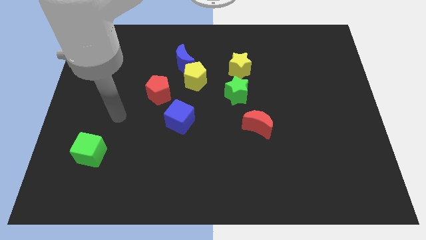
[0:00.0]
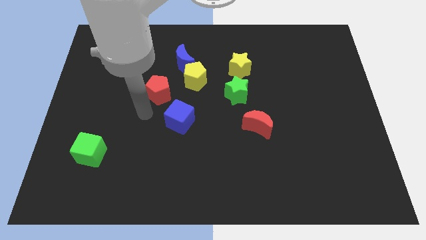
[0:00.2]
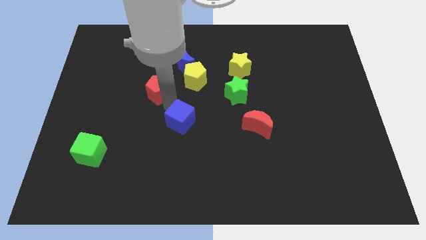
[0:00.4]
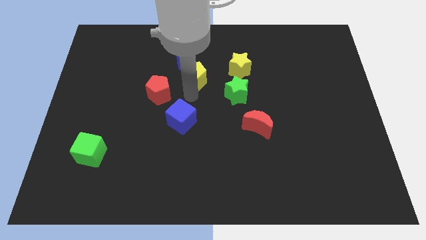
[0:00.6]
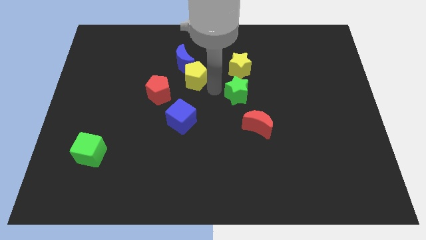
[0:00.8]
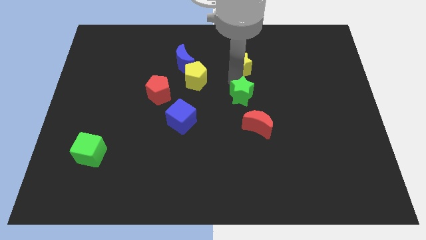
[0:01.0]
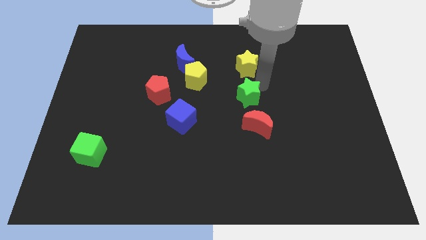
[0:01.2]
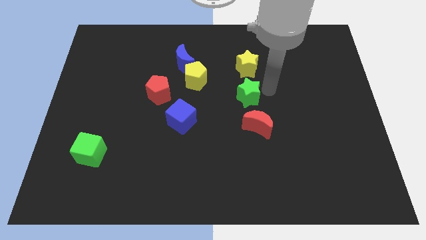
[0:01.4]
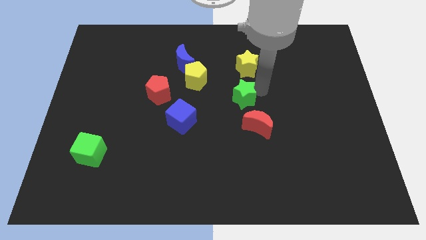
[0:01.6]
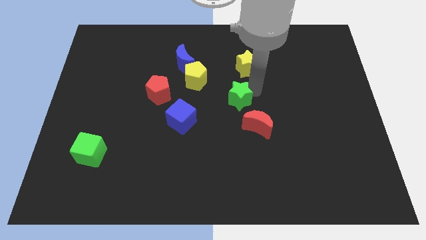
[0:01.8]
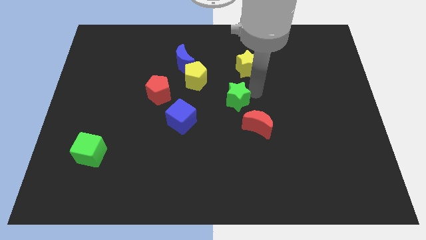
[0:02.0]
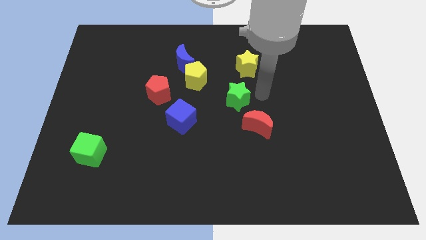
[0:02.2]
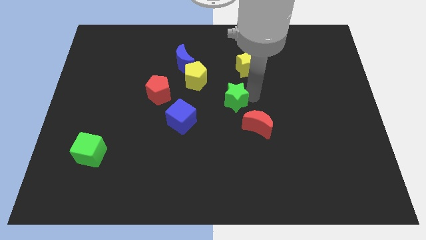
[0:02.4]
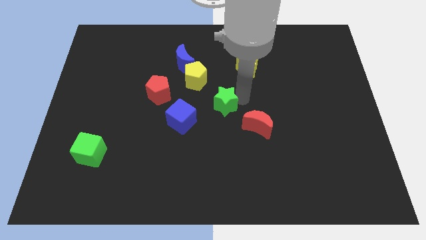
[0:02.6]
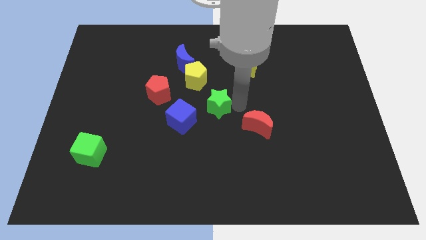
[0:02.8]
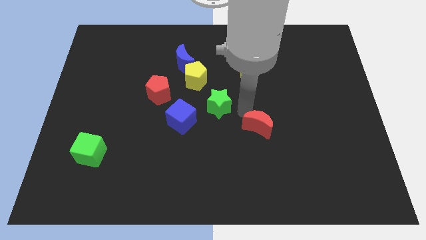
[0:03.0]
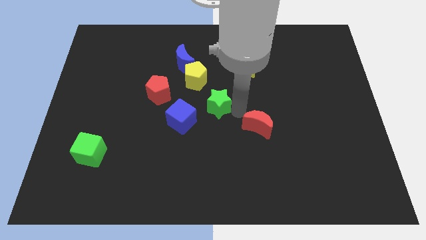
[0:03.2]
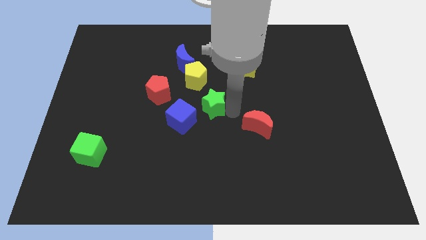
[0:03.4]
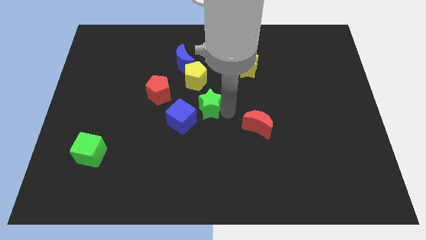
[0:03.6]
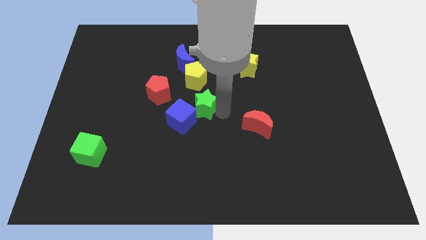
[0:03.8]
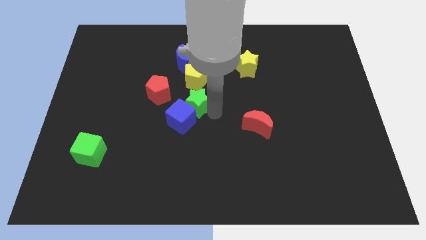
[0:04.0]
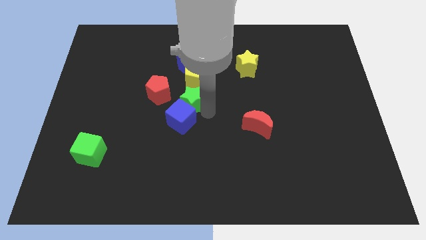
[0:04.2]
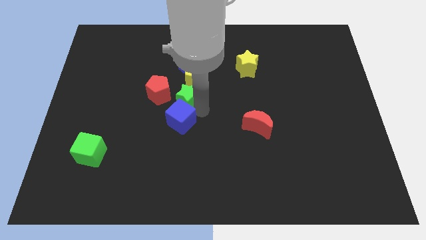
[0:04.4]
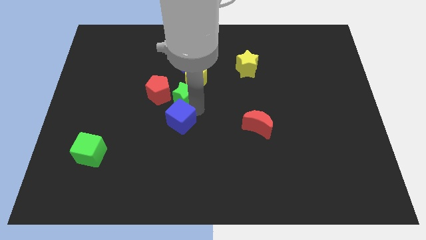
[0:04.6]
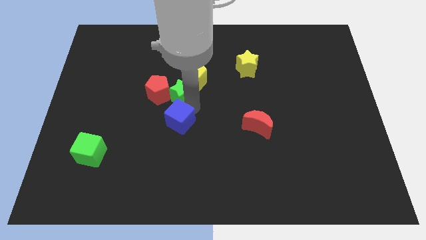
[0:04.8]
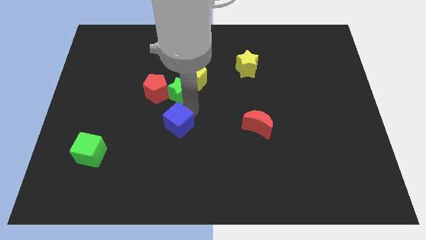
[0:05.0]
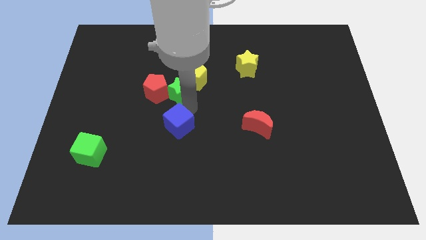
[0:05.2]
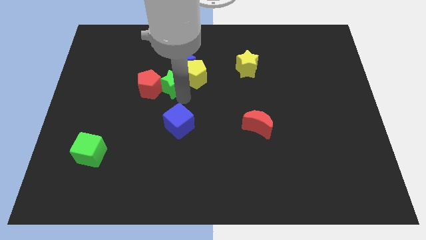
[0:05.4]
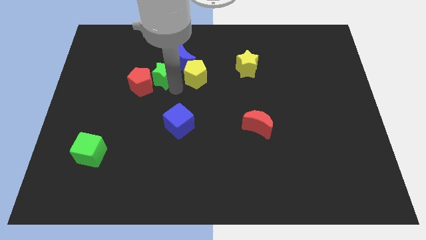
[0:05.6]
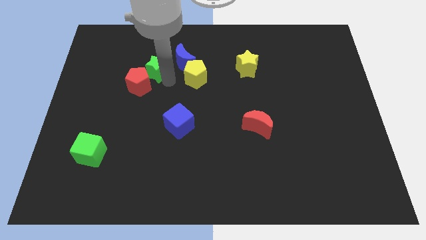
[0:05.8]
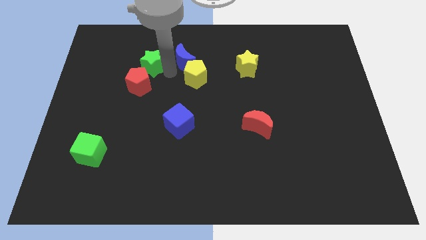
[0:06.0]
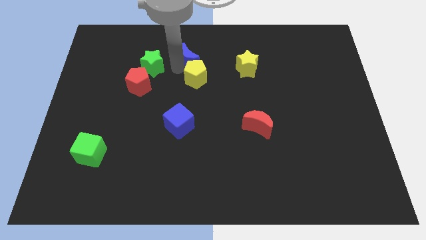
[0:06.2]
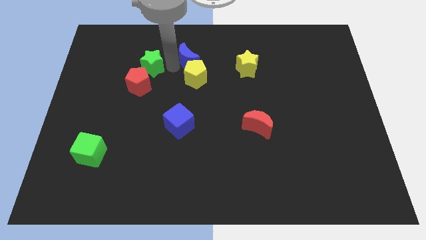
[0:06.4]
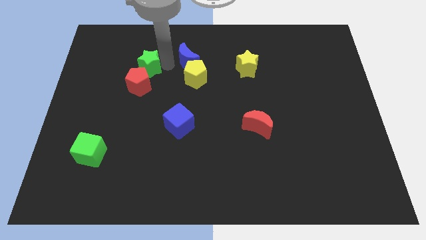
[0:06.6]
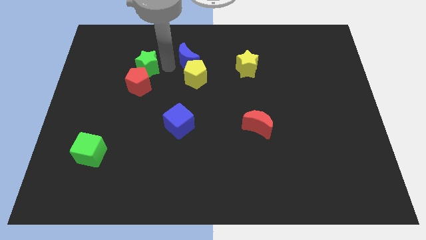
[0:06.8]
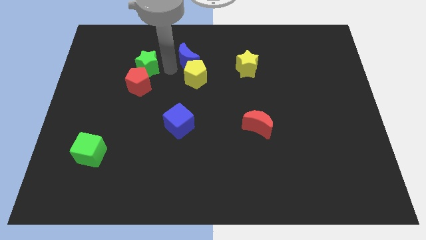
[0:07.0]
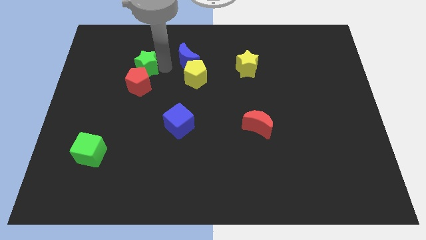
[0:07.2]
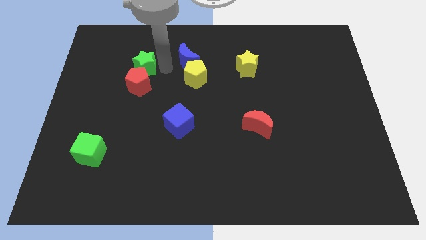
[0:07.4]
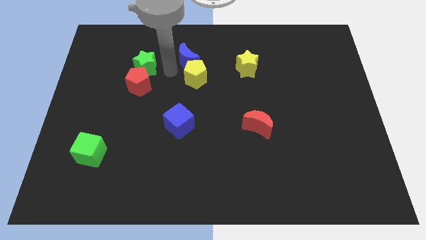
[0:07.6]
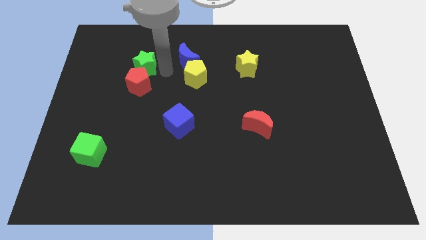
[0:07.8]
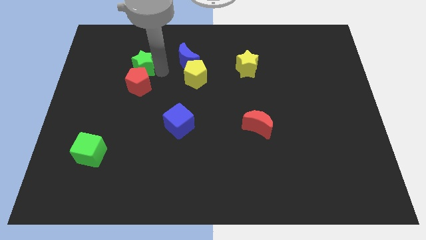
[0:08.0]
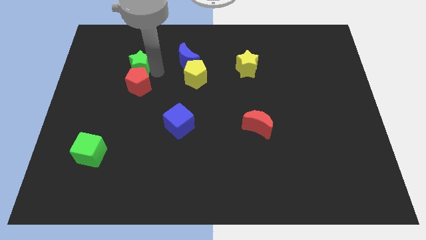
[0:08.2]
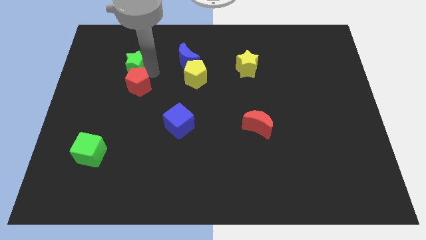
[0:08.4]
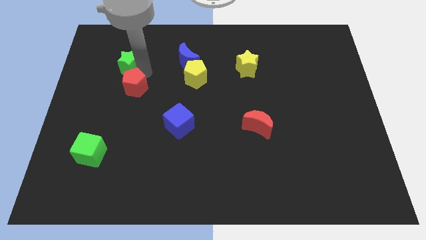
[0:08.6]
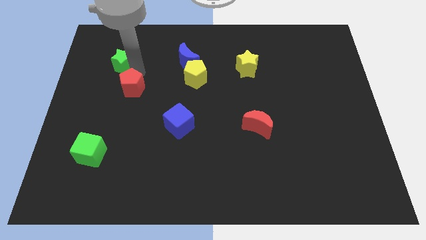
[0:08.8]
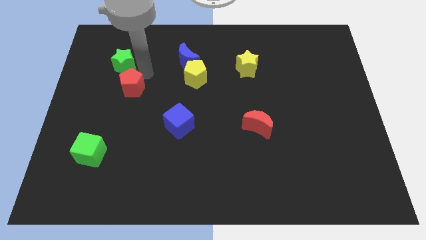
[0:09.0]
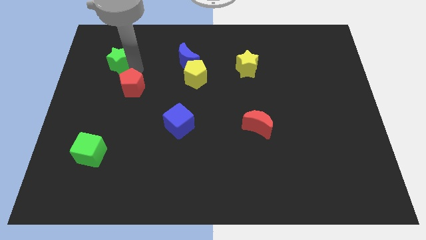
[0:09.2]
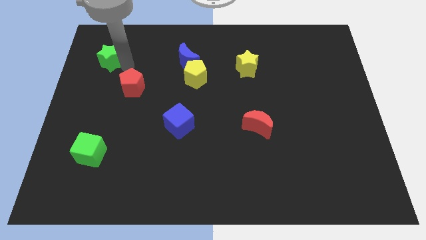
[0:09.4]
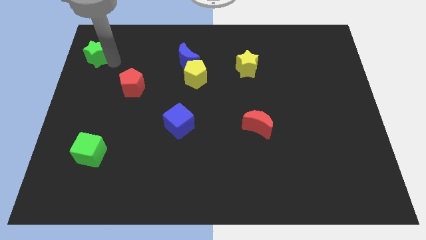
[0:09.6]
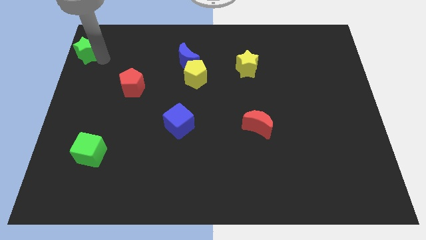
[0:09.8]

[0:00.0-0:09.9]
slide the green star to the top left corner

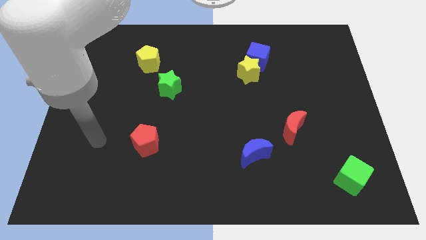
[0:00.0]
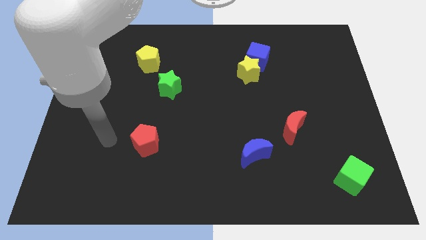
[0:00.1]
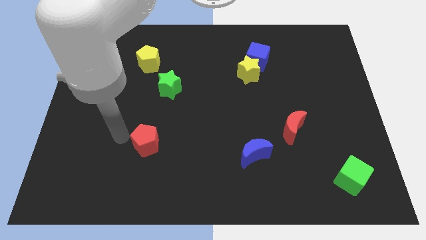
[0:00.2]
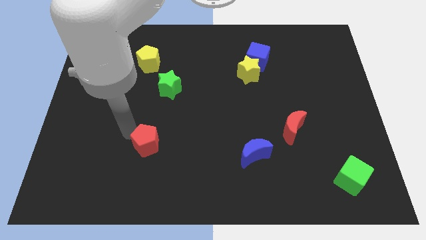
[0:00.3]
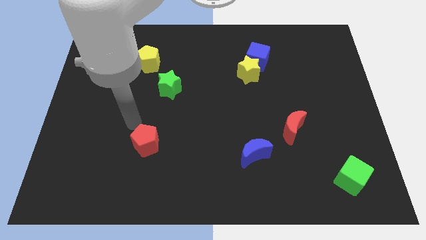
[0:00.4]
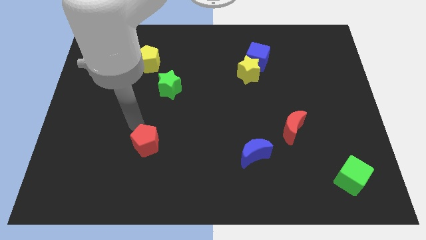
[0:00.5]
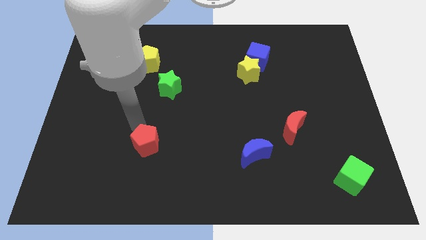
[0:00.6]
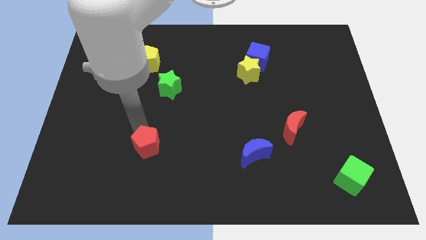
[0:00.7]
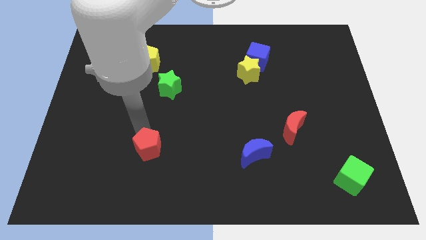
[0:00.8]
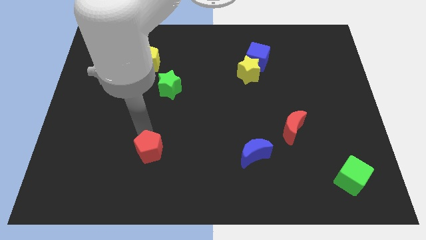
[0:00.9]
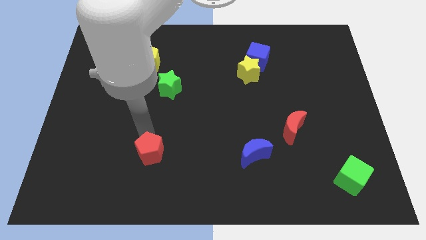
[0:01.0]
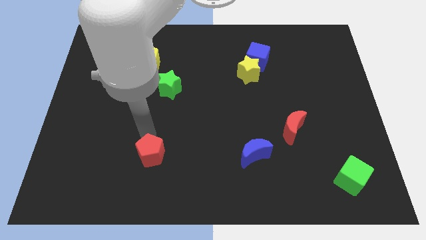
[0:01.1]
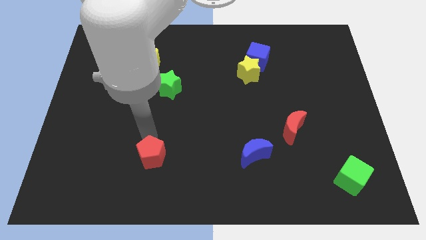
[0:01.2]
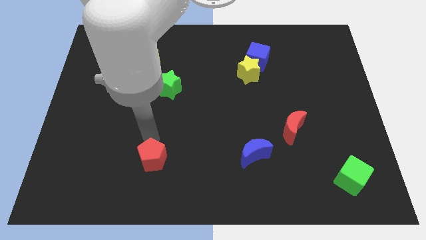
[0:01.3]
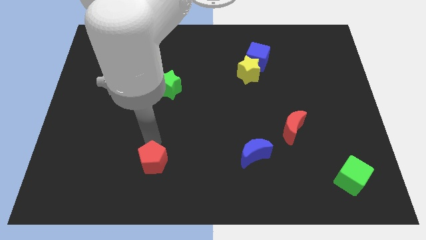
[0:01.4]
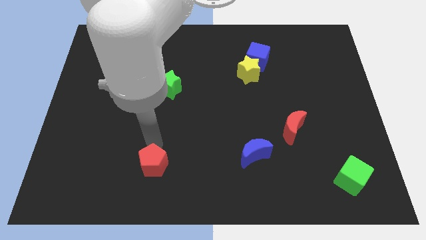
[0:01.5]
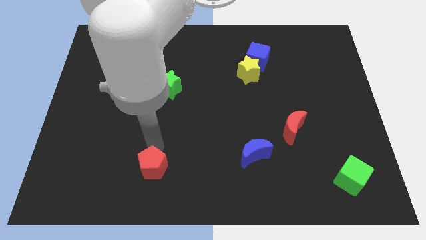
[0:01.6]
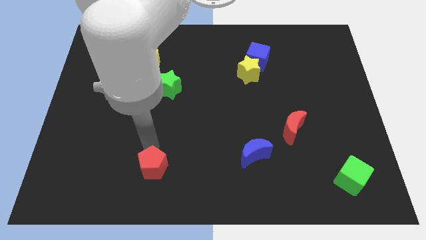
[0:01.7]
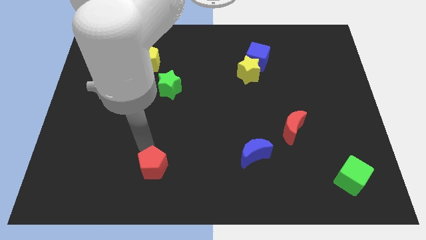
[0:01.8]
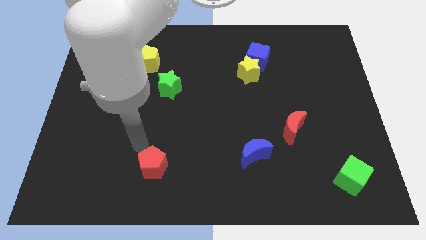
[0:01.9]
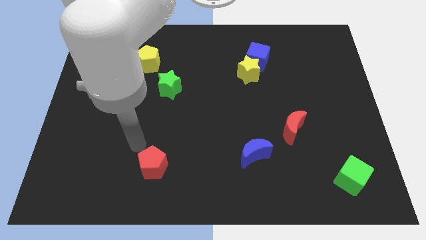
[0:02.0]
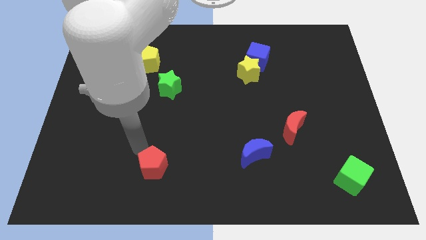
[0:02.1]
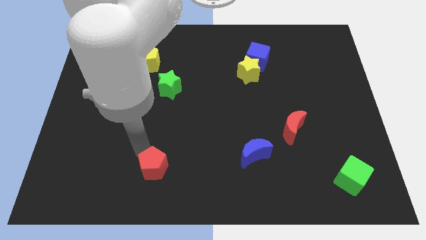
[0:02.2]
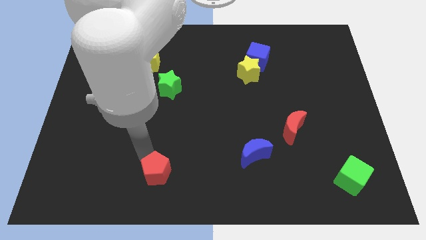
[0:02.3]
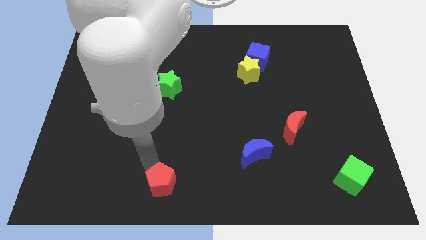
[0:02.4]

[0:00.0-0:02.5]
push the red pentagon to the bottom
